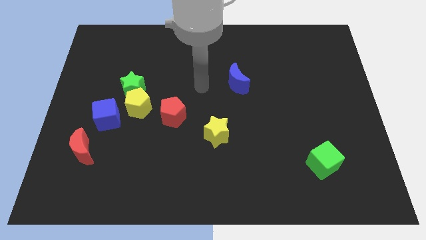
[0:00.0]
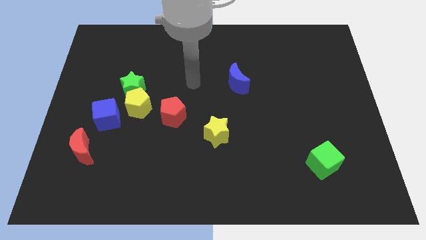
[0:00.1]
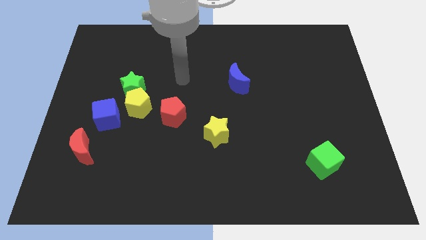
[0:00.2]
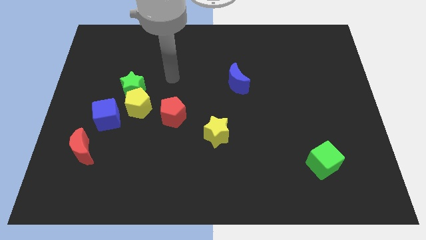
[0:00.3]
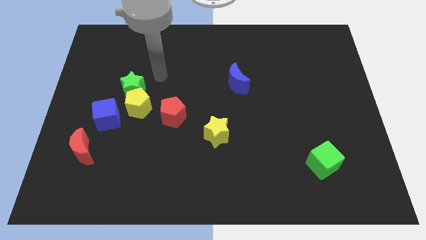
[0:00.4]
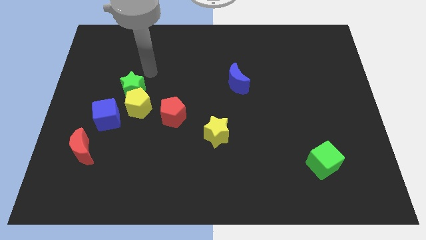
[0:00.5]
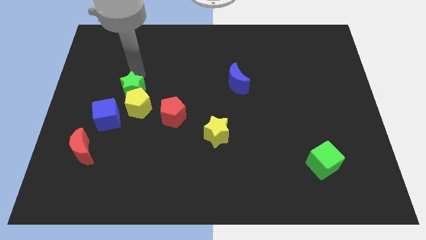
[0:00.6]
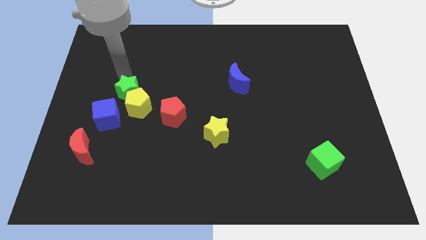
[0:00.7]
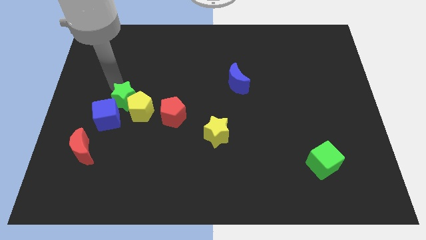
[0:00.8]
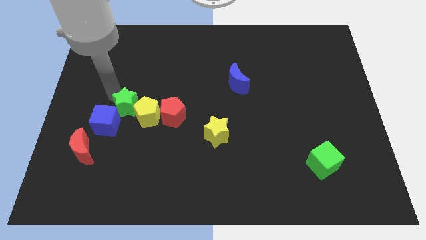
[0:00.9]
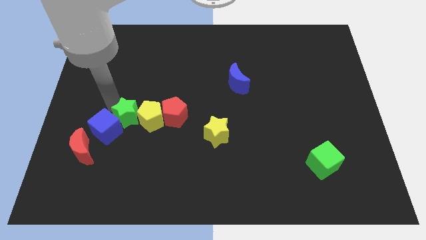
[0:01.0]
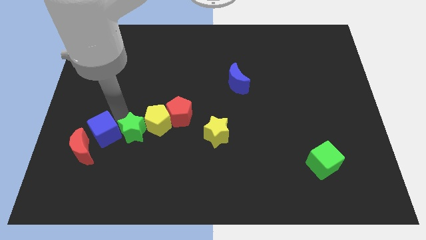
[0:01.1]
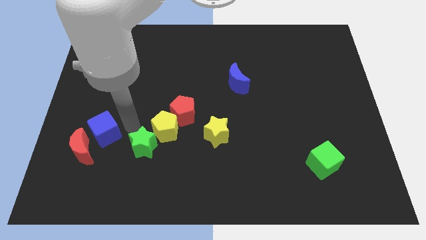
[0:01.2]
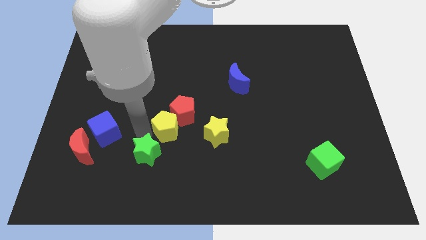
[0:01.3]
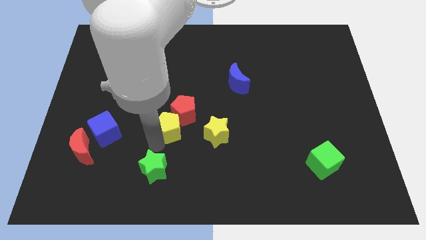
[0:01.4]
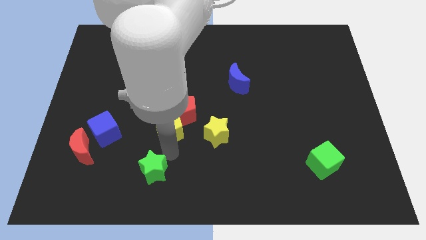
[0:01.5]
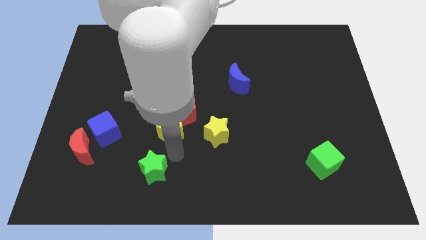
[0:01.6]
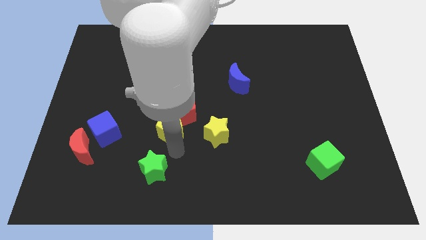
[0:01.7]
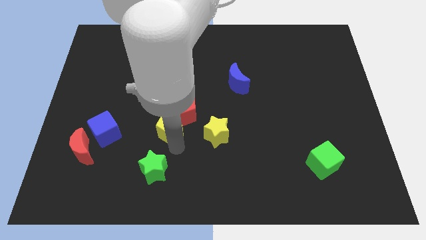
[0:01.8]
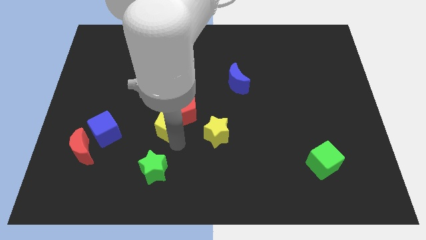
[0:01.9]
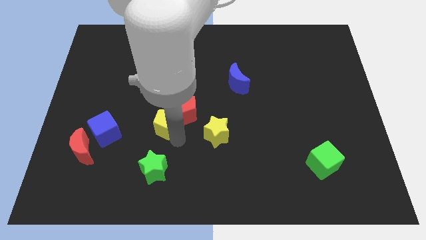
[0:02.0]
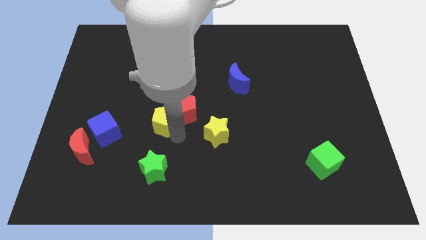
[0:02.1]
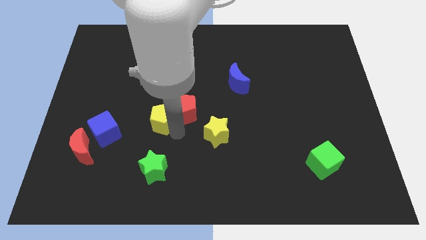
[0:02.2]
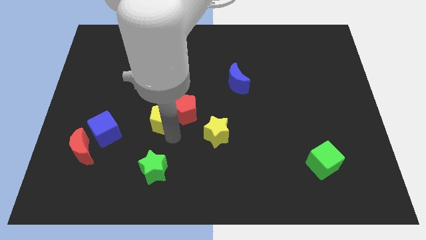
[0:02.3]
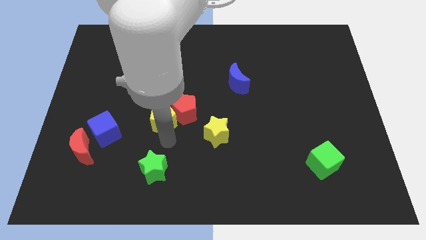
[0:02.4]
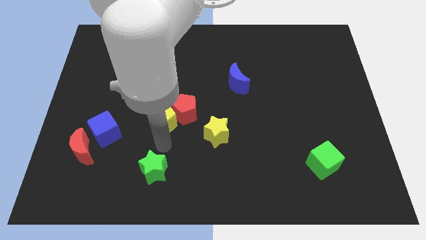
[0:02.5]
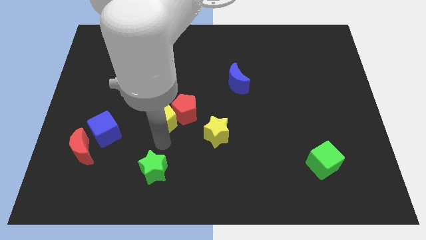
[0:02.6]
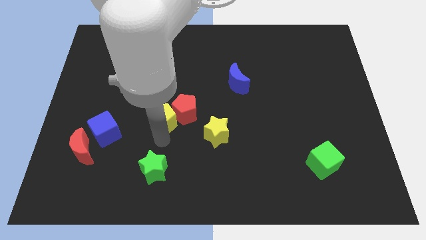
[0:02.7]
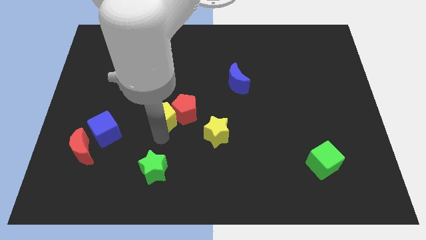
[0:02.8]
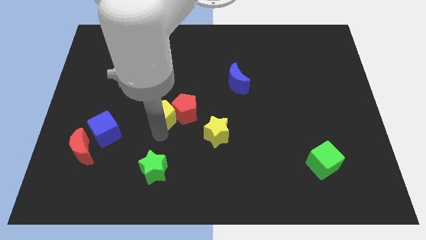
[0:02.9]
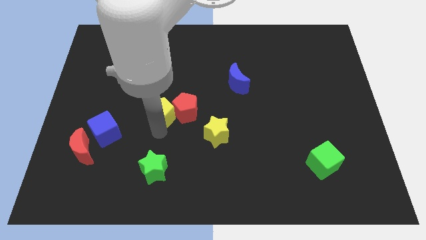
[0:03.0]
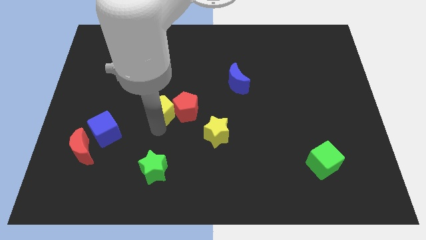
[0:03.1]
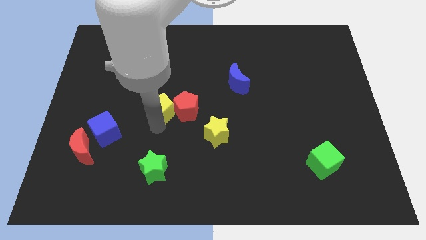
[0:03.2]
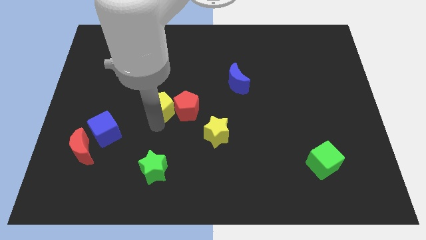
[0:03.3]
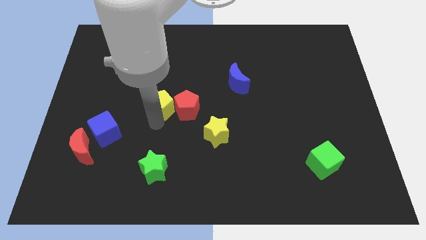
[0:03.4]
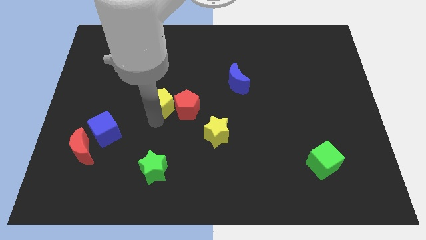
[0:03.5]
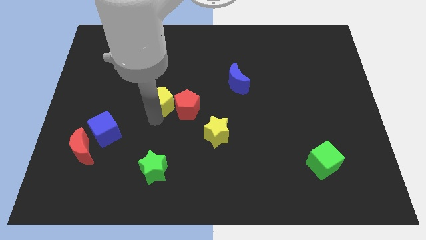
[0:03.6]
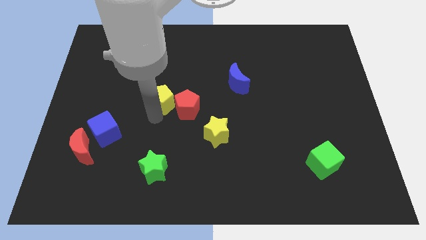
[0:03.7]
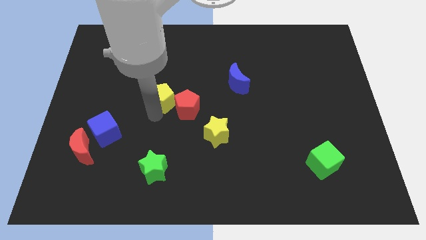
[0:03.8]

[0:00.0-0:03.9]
move the yellow pentagon away from the group

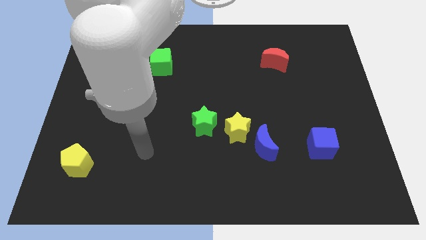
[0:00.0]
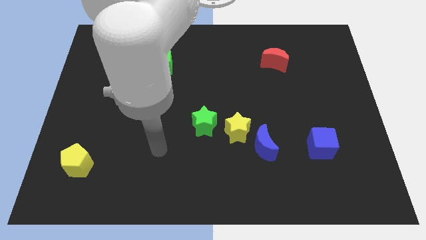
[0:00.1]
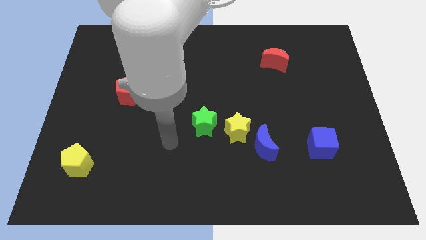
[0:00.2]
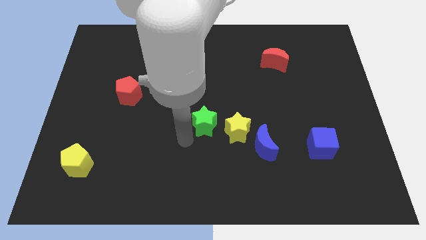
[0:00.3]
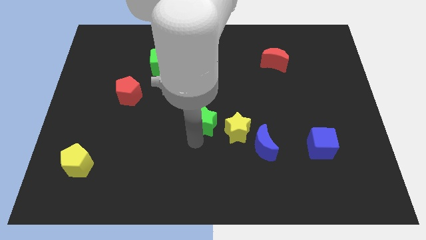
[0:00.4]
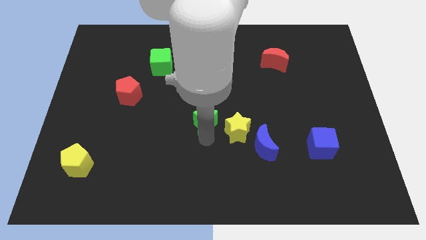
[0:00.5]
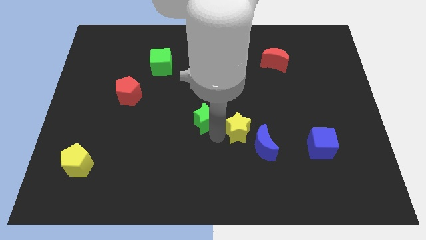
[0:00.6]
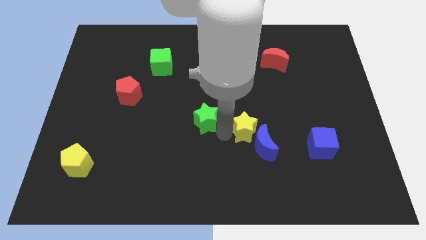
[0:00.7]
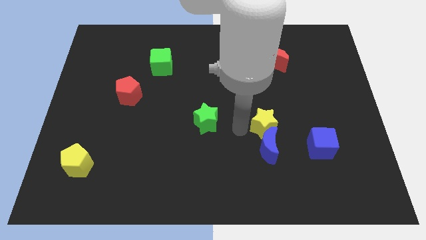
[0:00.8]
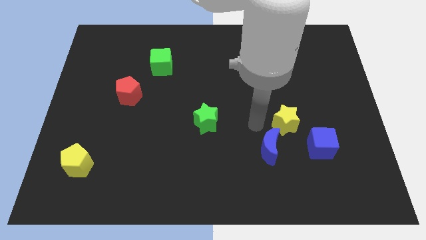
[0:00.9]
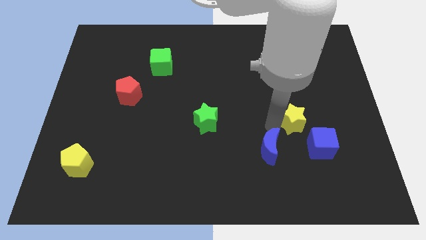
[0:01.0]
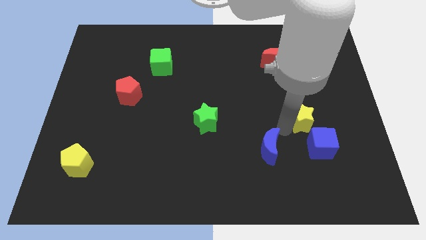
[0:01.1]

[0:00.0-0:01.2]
separate the blue moon from the yellow star

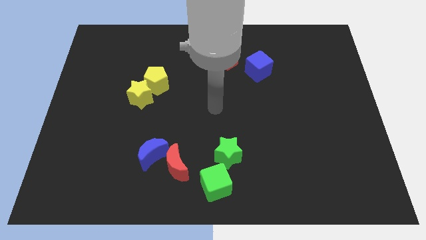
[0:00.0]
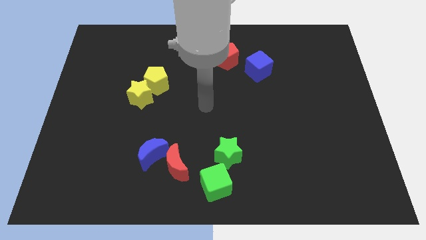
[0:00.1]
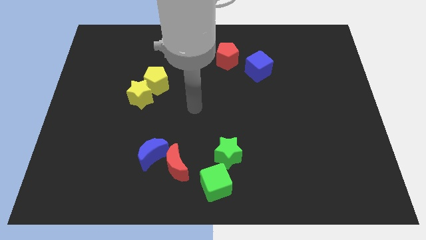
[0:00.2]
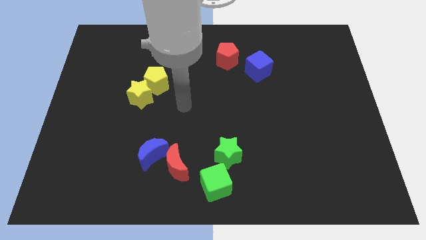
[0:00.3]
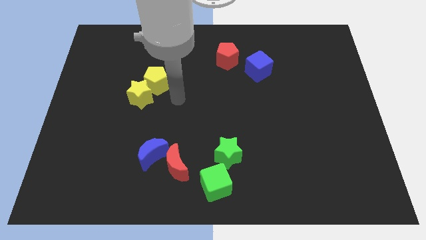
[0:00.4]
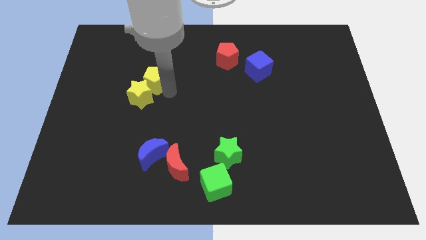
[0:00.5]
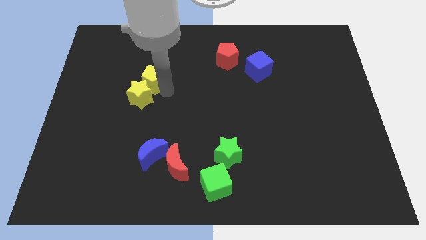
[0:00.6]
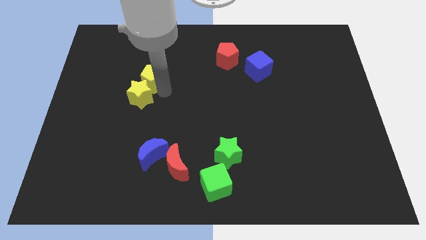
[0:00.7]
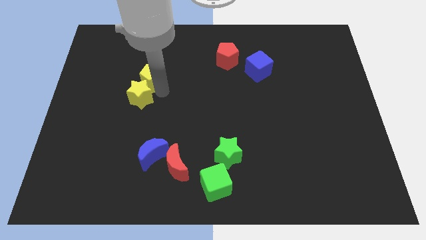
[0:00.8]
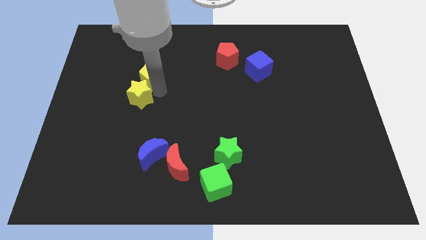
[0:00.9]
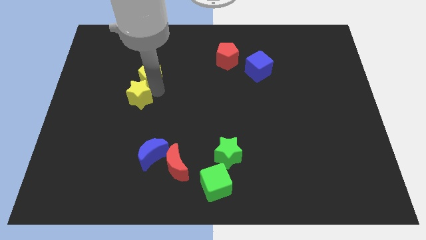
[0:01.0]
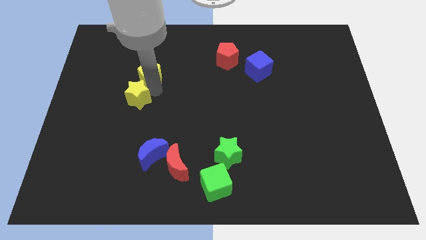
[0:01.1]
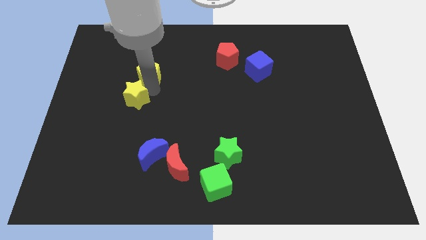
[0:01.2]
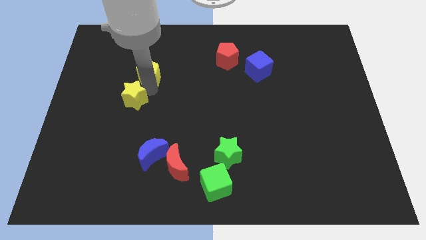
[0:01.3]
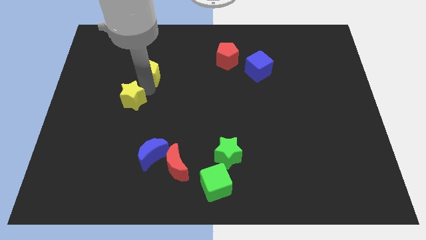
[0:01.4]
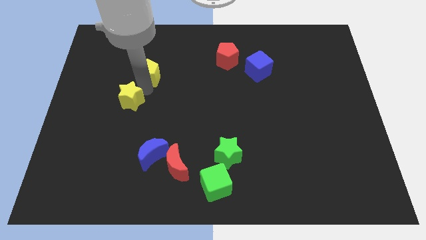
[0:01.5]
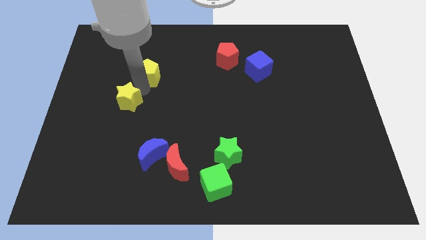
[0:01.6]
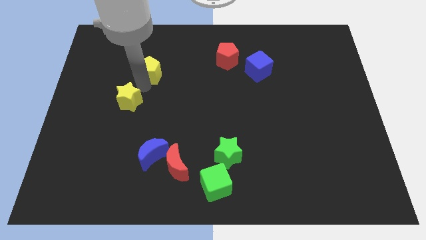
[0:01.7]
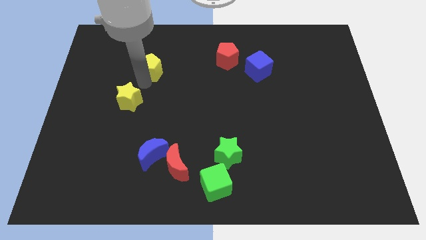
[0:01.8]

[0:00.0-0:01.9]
separate the yellow star from the yellow pentagon

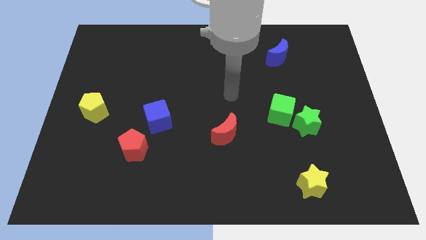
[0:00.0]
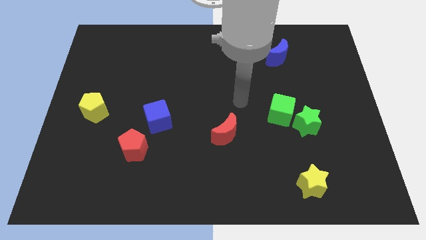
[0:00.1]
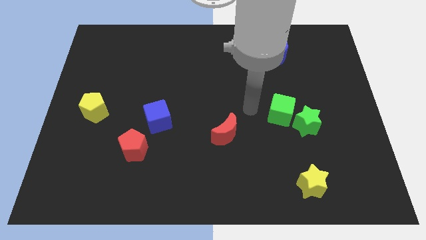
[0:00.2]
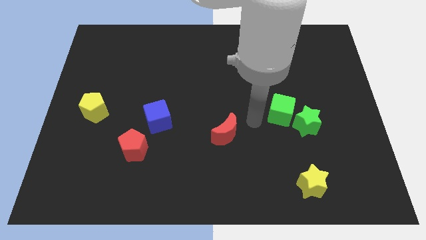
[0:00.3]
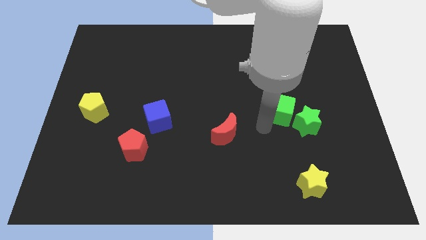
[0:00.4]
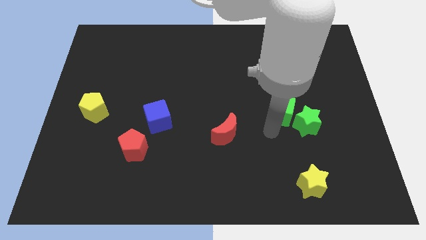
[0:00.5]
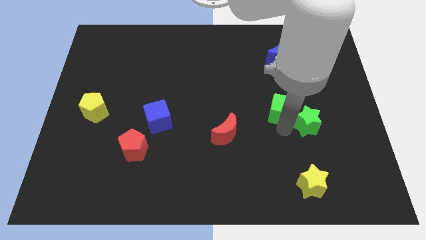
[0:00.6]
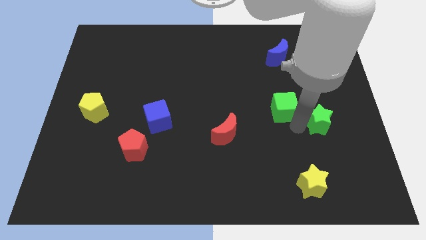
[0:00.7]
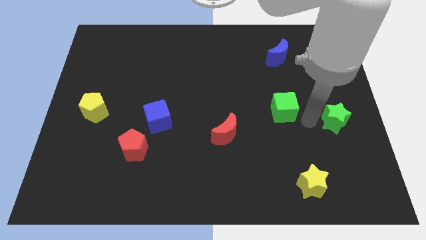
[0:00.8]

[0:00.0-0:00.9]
pull the green cube apart from the green star

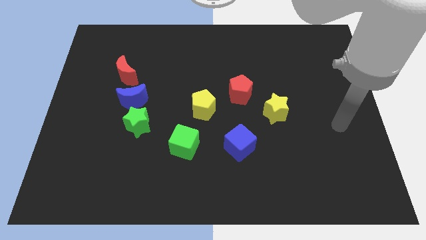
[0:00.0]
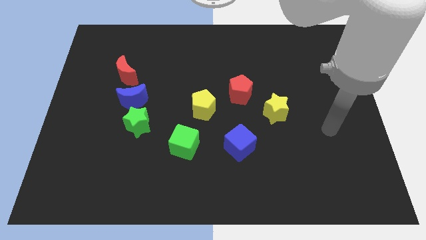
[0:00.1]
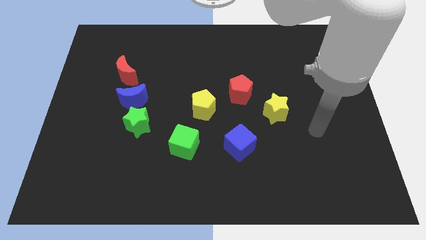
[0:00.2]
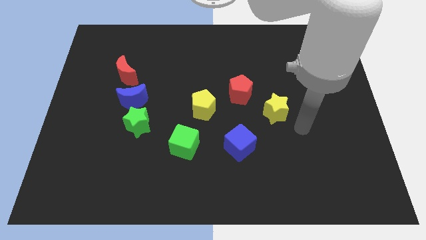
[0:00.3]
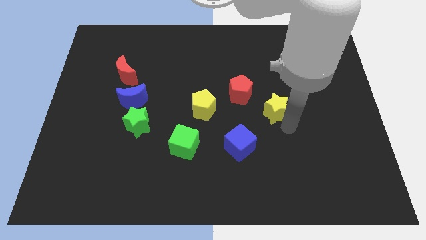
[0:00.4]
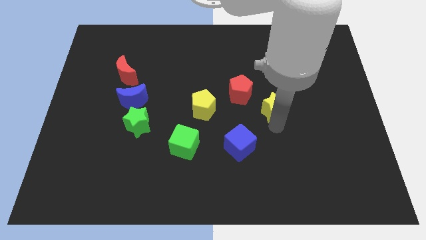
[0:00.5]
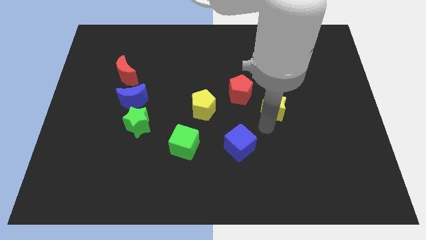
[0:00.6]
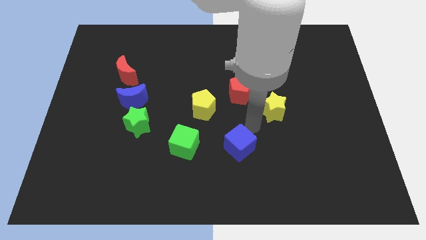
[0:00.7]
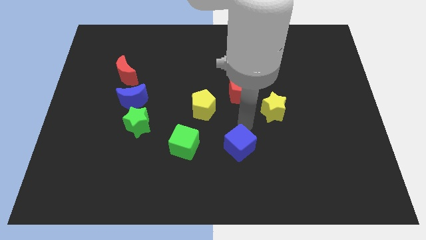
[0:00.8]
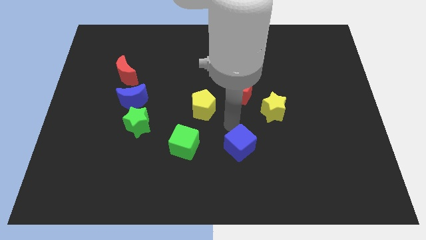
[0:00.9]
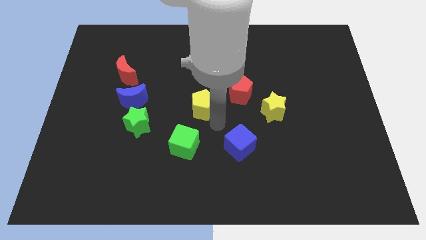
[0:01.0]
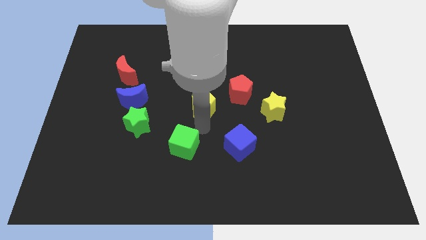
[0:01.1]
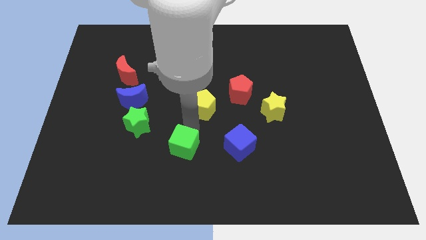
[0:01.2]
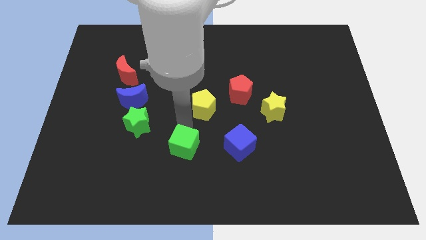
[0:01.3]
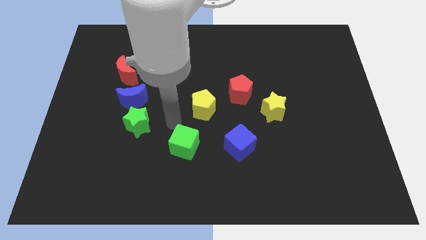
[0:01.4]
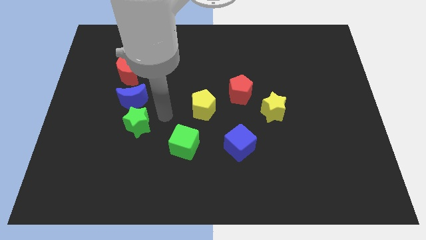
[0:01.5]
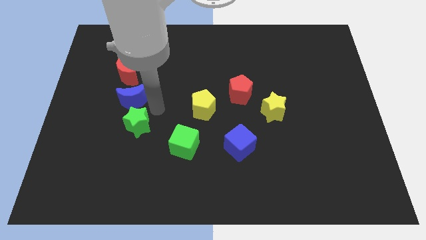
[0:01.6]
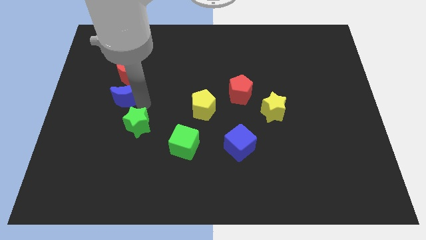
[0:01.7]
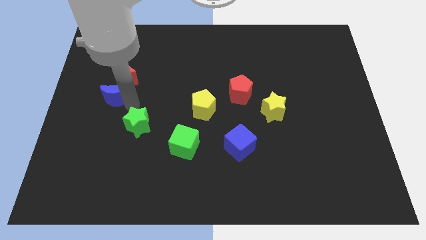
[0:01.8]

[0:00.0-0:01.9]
separate the green star from the blue moon
